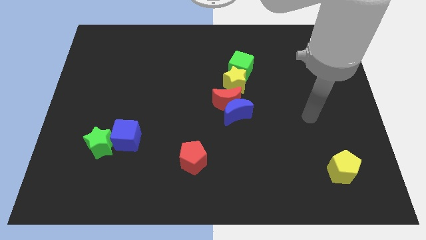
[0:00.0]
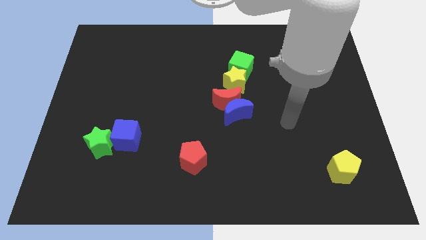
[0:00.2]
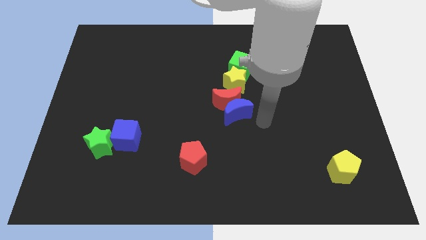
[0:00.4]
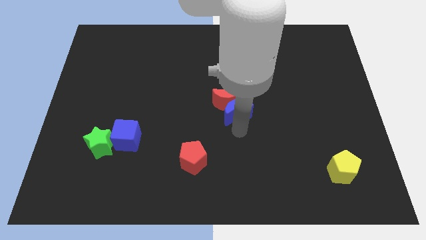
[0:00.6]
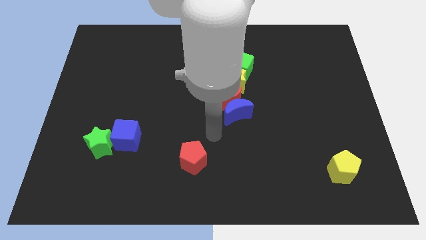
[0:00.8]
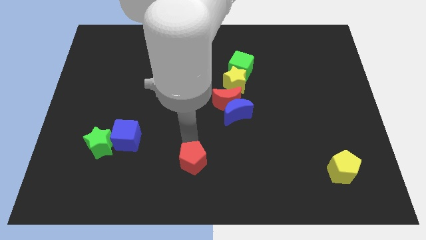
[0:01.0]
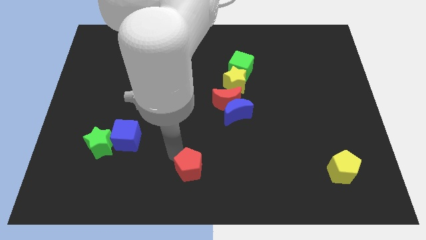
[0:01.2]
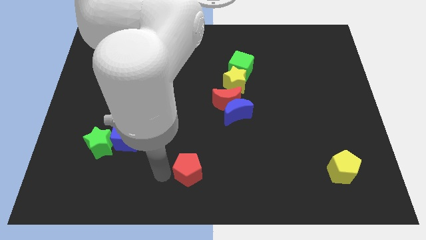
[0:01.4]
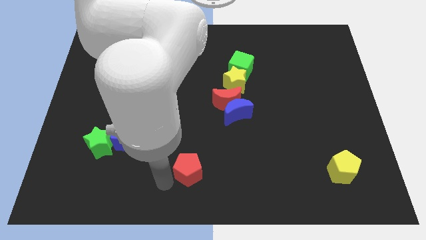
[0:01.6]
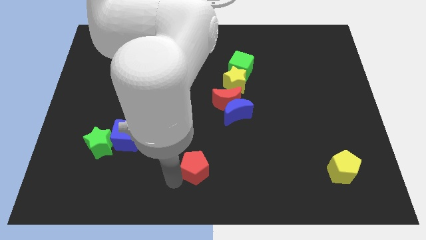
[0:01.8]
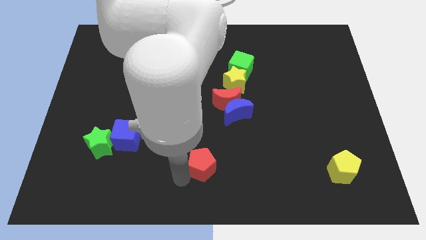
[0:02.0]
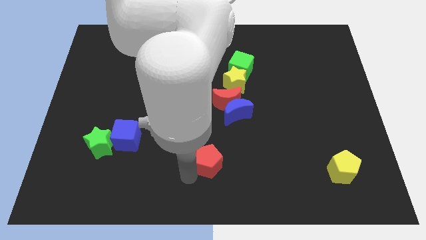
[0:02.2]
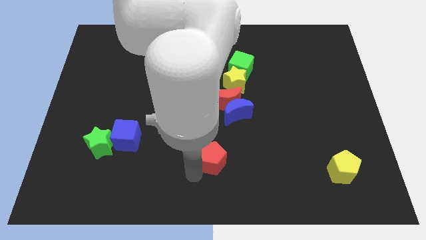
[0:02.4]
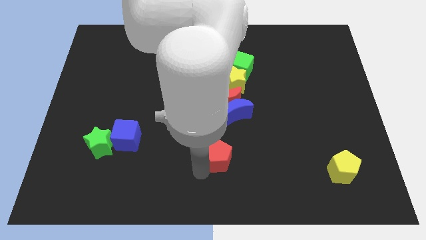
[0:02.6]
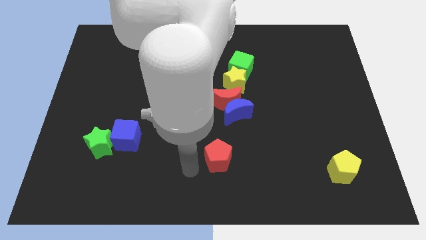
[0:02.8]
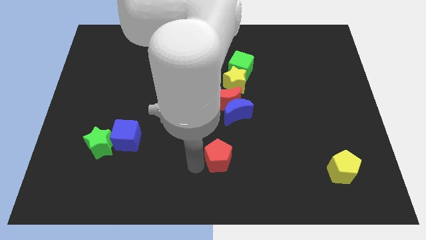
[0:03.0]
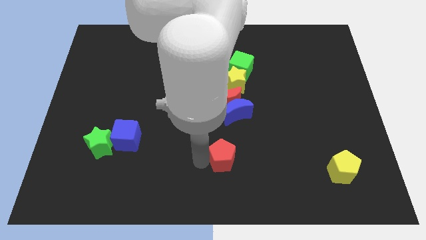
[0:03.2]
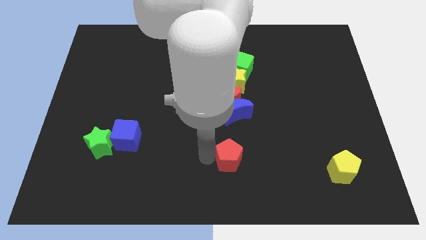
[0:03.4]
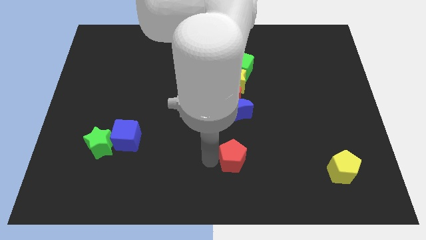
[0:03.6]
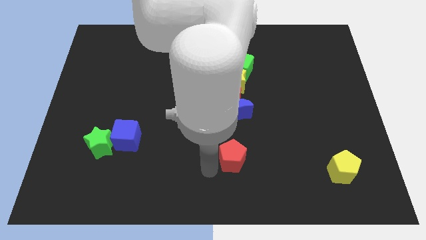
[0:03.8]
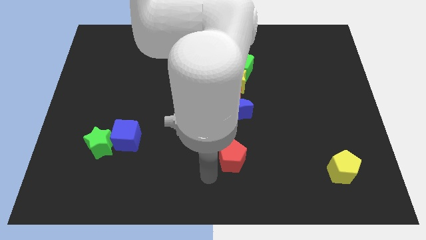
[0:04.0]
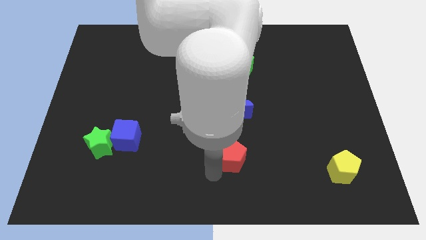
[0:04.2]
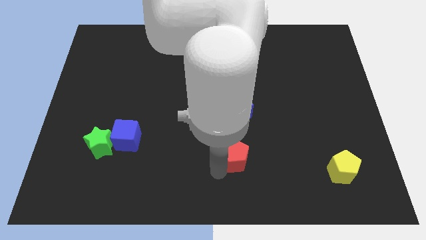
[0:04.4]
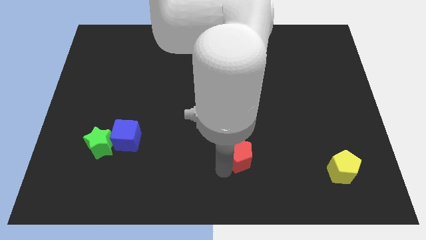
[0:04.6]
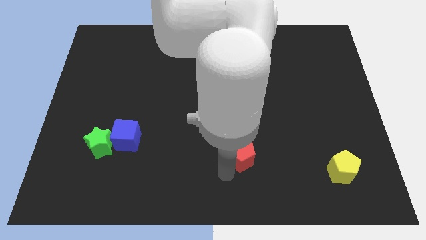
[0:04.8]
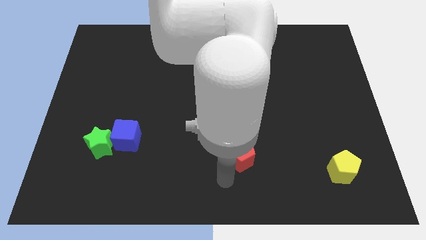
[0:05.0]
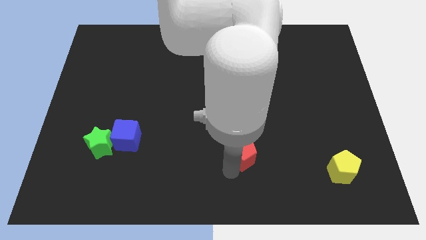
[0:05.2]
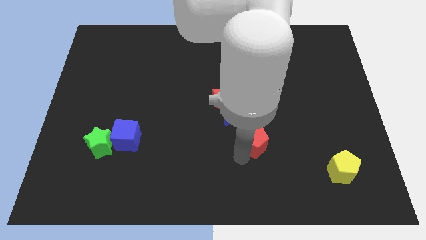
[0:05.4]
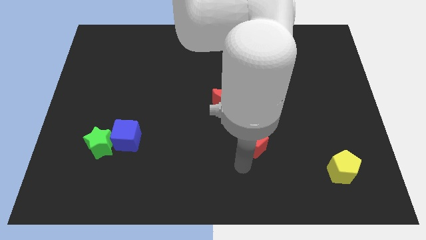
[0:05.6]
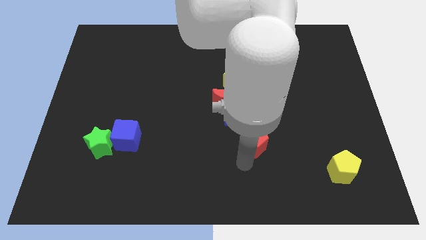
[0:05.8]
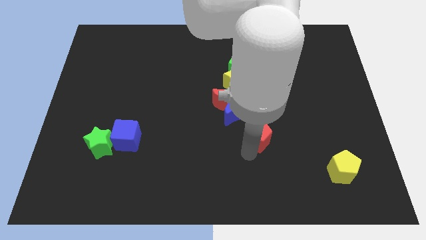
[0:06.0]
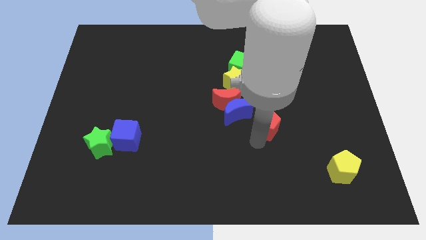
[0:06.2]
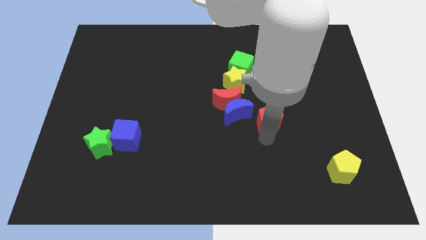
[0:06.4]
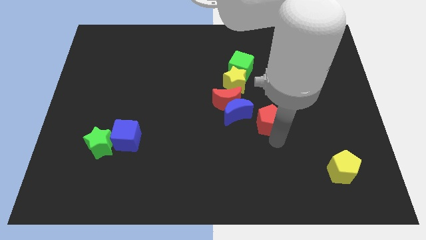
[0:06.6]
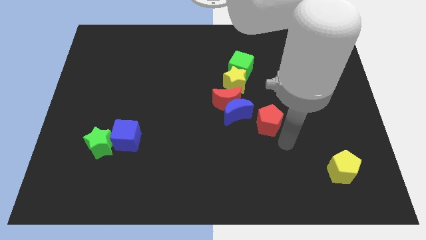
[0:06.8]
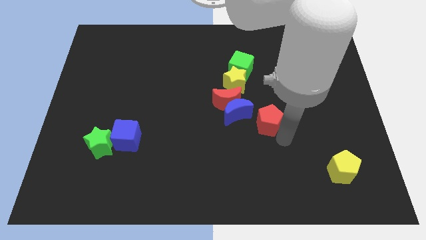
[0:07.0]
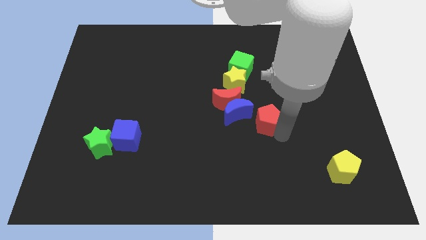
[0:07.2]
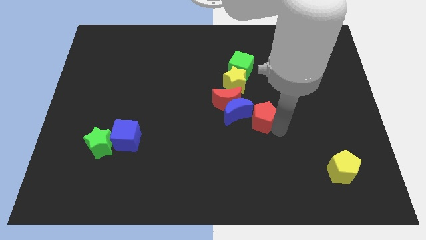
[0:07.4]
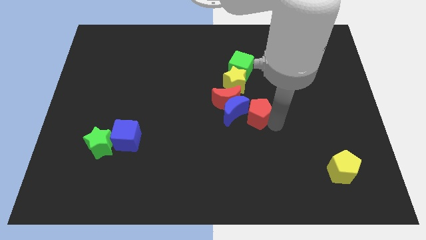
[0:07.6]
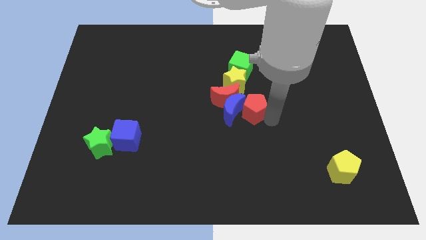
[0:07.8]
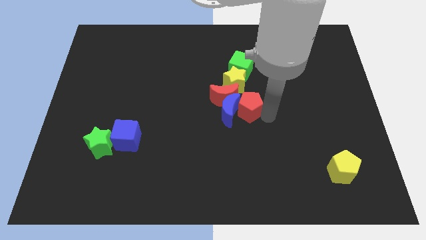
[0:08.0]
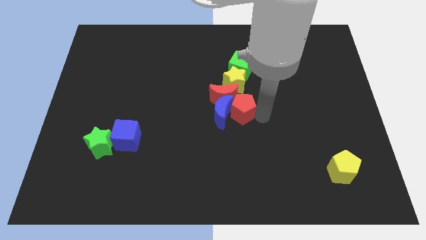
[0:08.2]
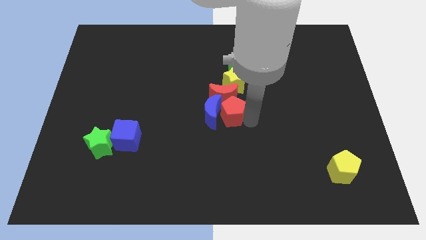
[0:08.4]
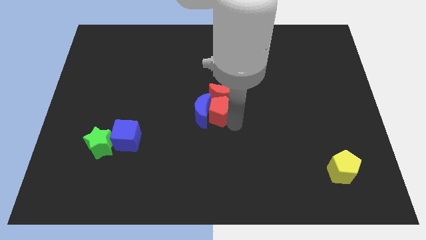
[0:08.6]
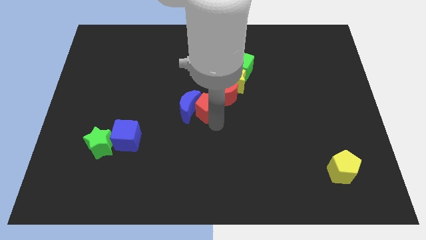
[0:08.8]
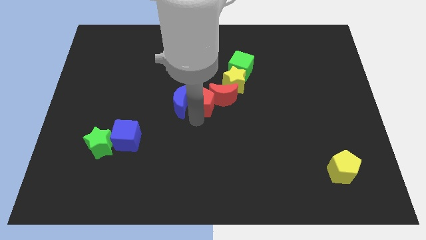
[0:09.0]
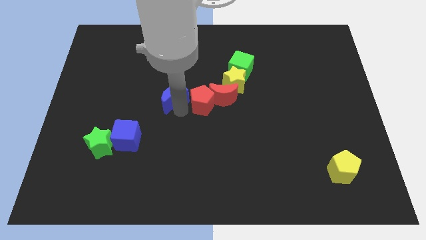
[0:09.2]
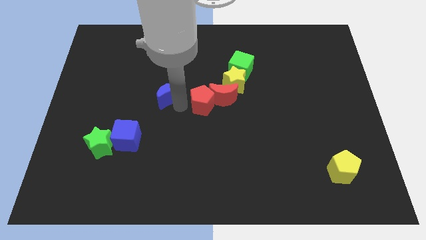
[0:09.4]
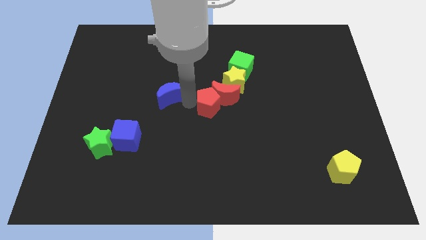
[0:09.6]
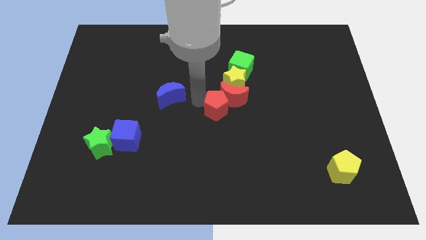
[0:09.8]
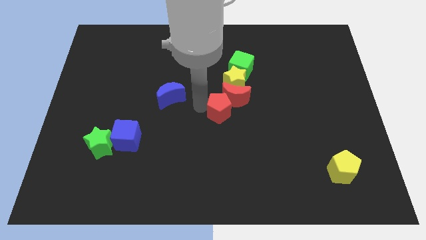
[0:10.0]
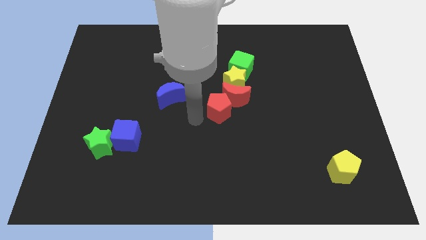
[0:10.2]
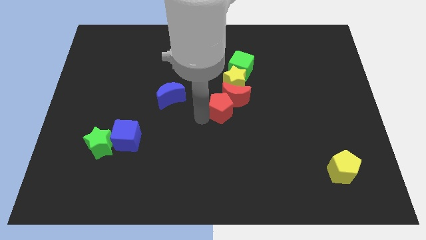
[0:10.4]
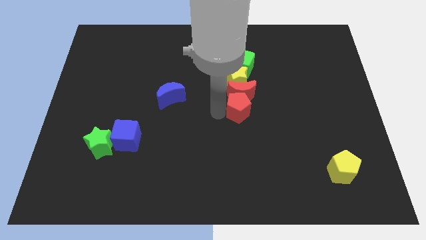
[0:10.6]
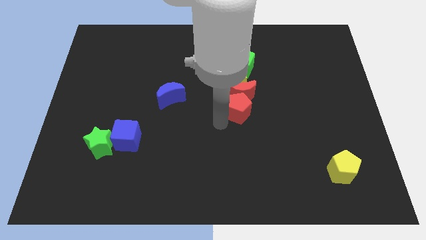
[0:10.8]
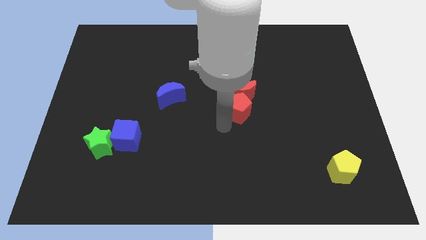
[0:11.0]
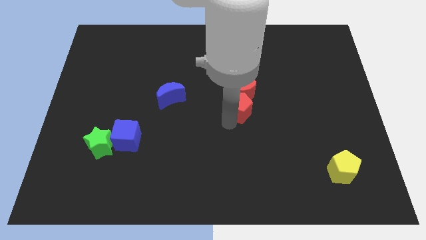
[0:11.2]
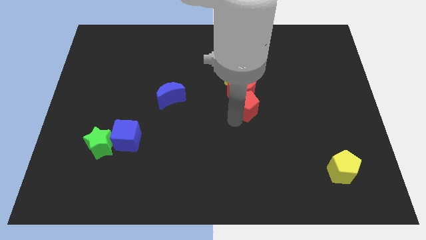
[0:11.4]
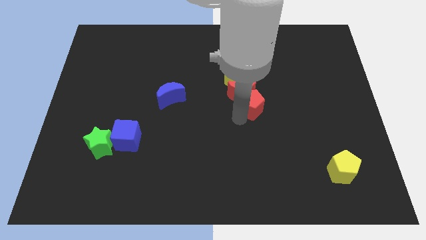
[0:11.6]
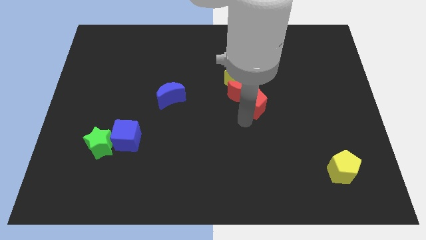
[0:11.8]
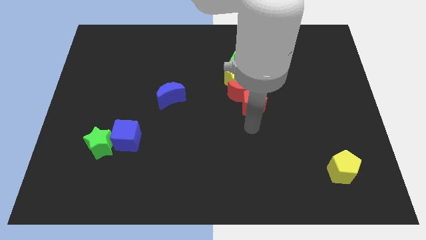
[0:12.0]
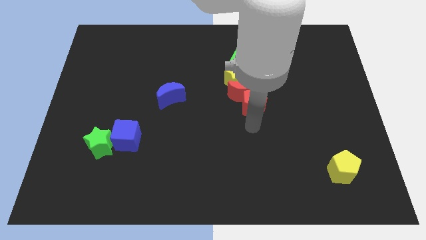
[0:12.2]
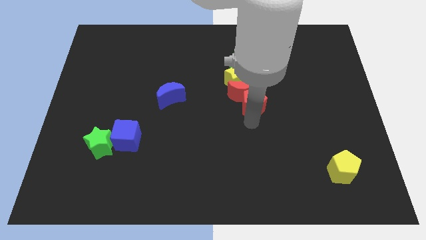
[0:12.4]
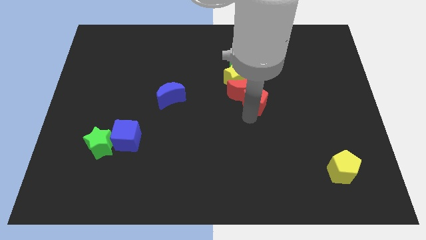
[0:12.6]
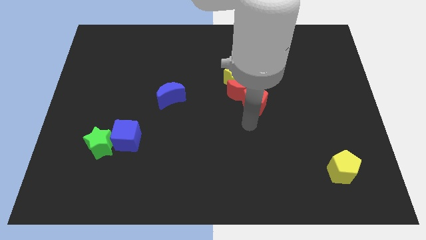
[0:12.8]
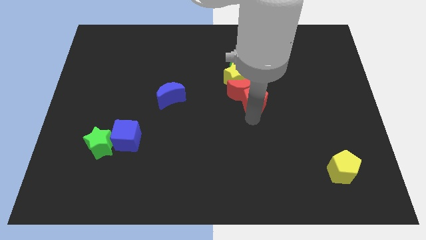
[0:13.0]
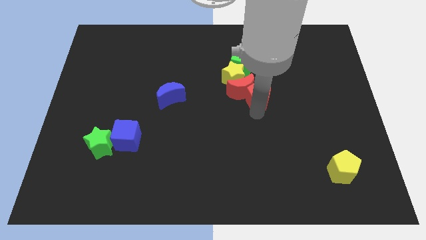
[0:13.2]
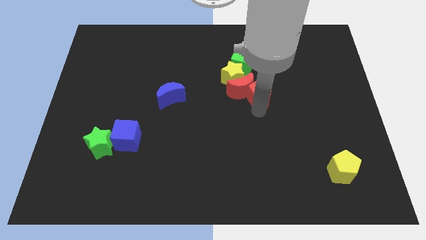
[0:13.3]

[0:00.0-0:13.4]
put the red pentagon to the top right of the red moon

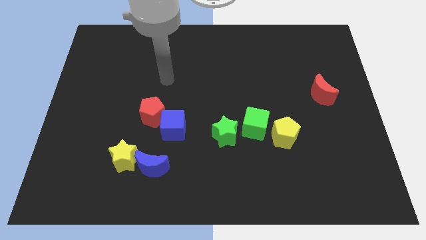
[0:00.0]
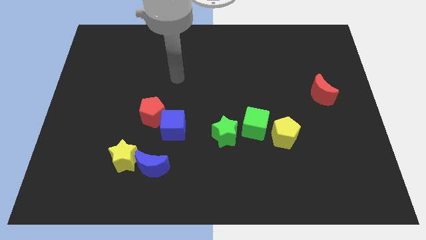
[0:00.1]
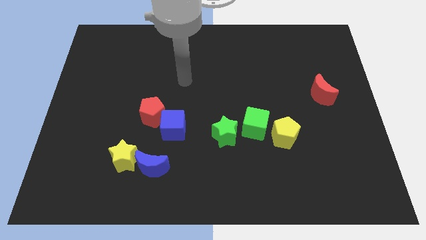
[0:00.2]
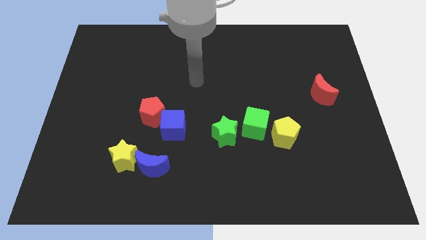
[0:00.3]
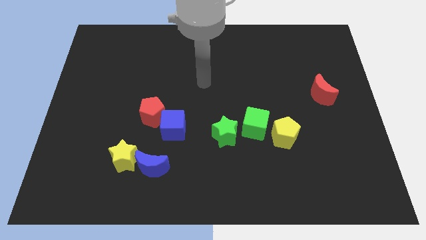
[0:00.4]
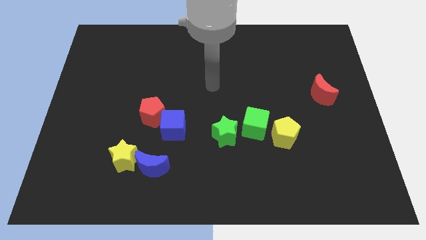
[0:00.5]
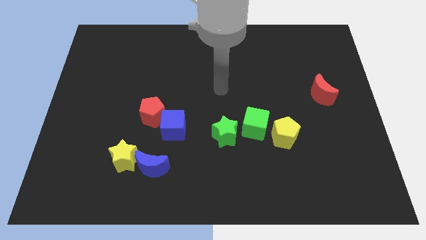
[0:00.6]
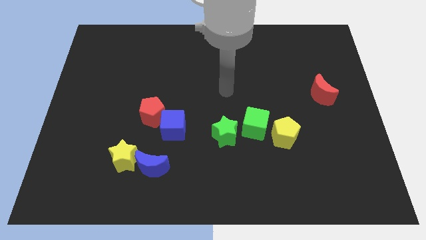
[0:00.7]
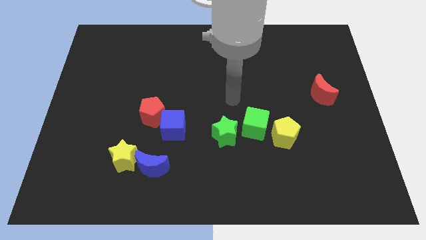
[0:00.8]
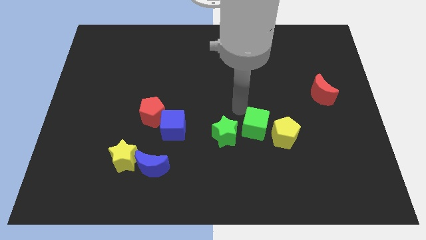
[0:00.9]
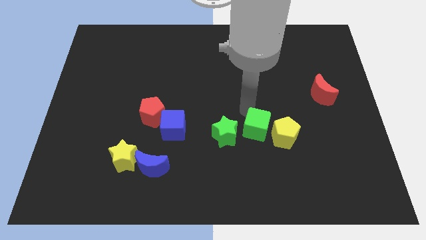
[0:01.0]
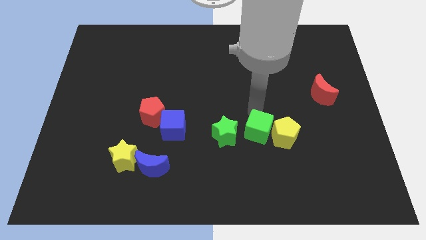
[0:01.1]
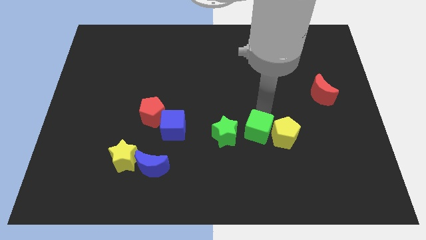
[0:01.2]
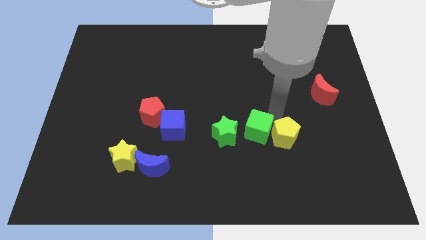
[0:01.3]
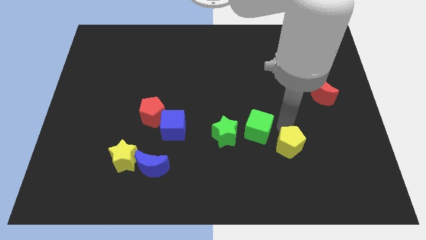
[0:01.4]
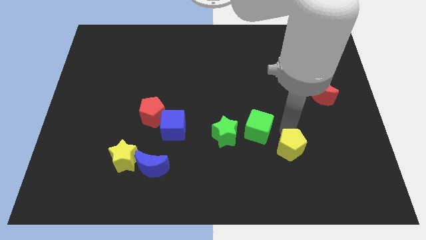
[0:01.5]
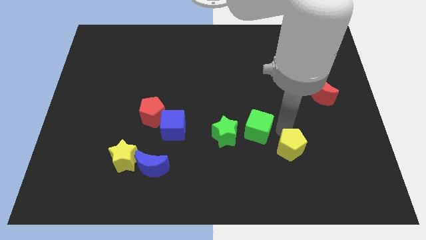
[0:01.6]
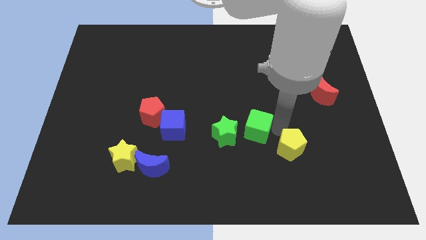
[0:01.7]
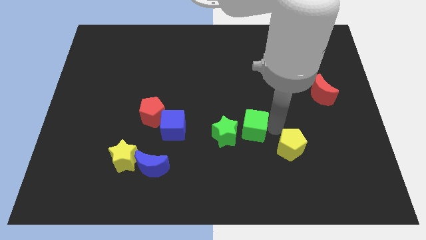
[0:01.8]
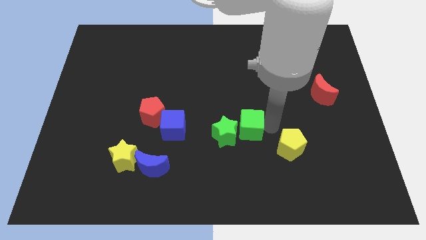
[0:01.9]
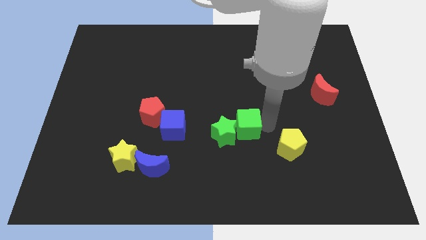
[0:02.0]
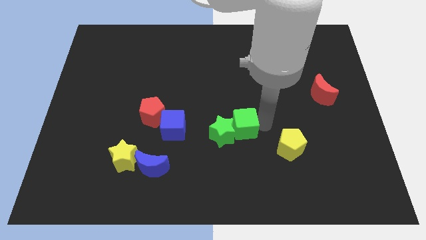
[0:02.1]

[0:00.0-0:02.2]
put the green cube just right of the blue cube
